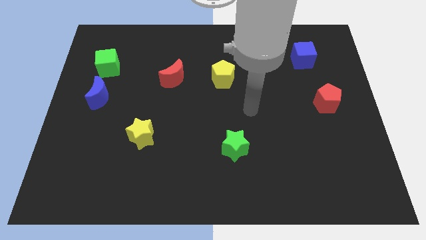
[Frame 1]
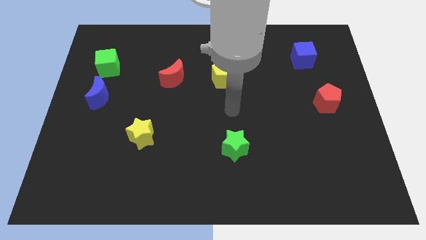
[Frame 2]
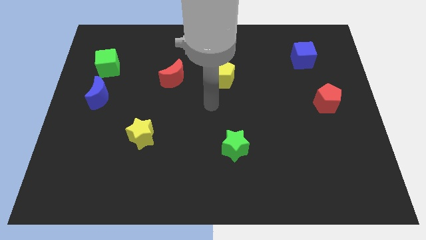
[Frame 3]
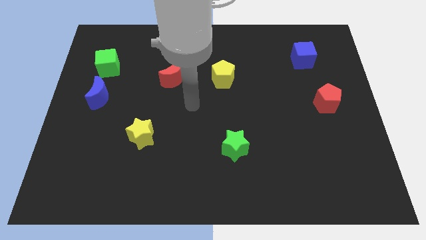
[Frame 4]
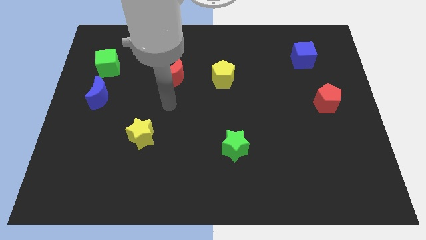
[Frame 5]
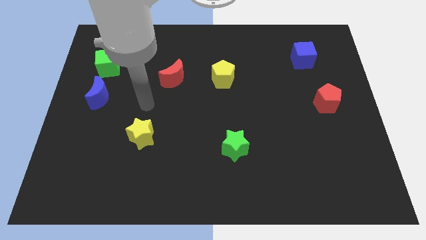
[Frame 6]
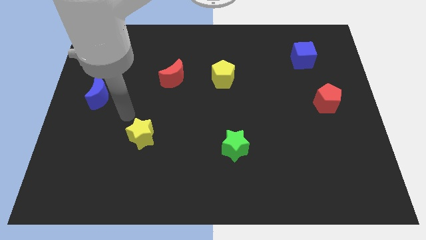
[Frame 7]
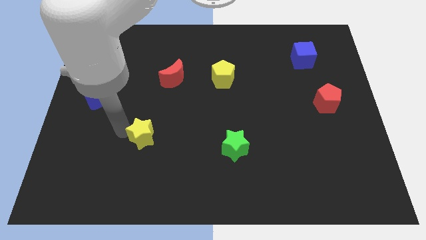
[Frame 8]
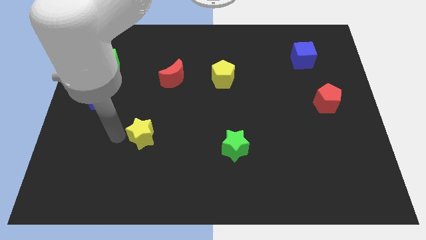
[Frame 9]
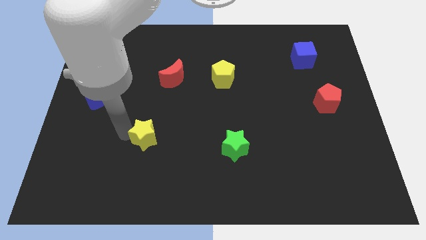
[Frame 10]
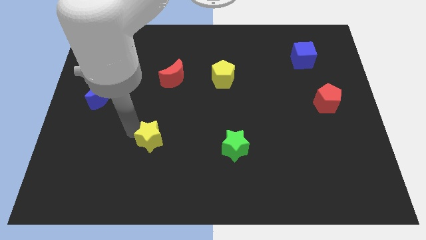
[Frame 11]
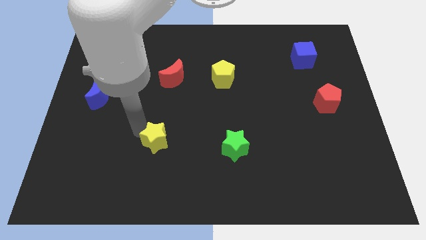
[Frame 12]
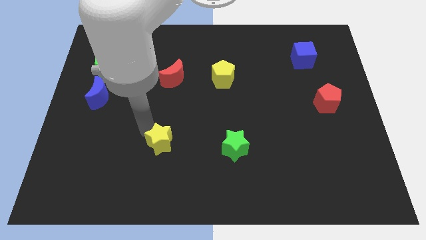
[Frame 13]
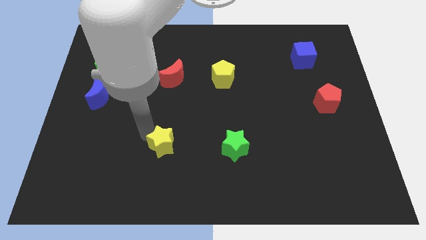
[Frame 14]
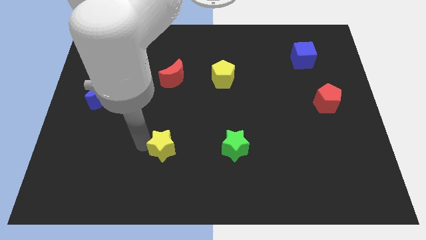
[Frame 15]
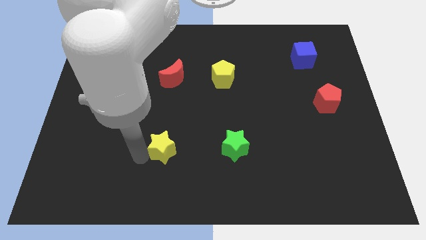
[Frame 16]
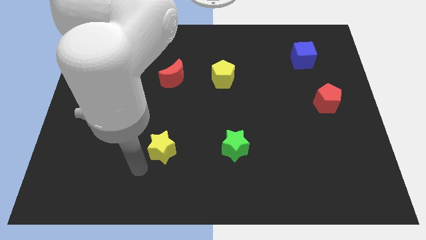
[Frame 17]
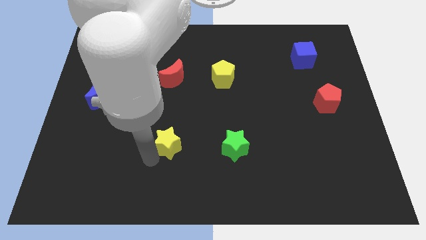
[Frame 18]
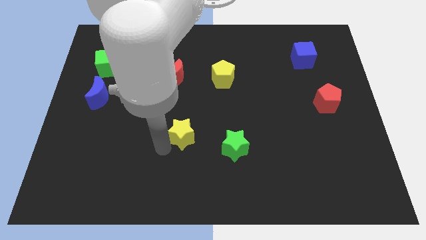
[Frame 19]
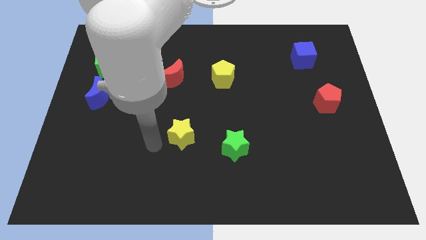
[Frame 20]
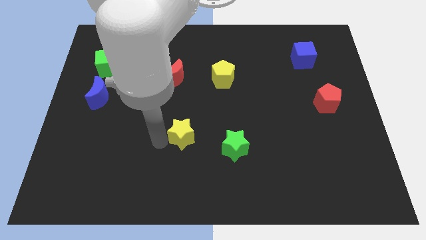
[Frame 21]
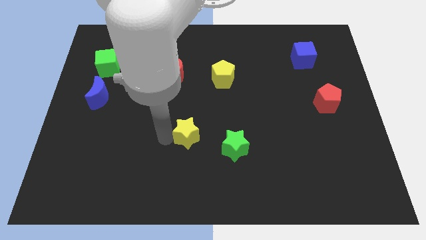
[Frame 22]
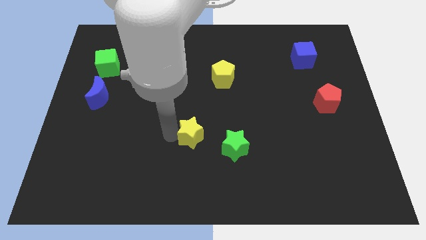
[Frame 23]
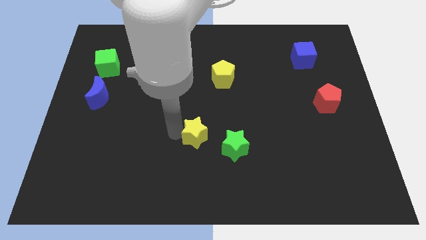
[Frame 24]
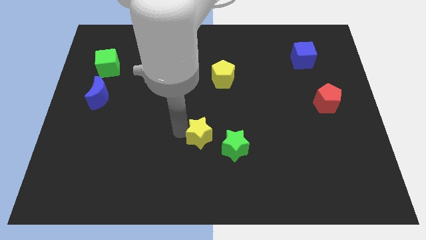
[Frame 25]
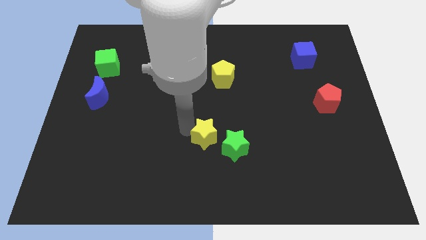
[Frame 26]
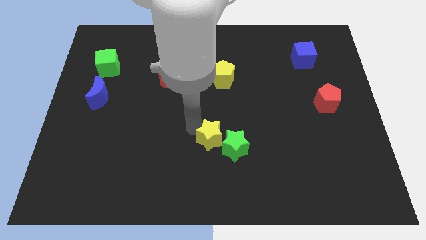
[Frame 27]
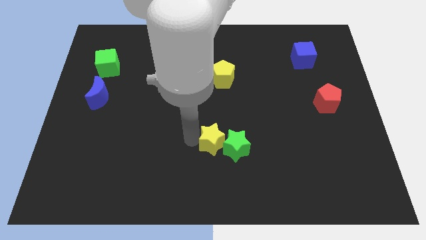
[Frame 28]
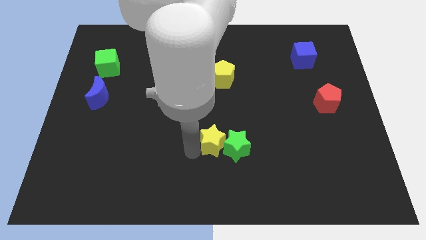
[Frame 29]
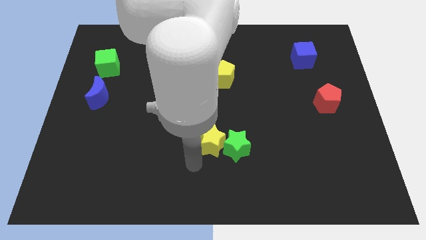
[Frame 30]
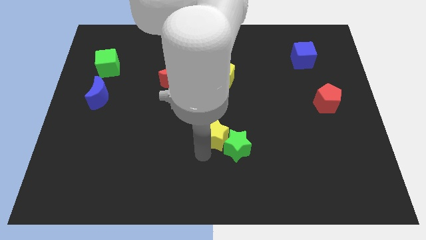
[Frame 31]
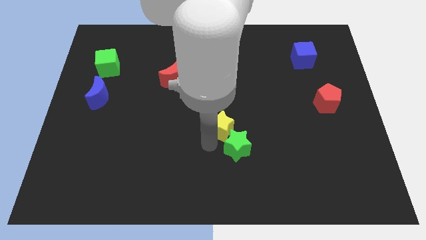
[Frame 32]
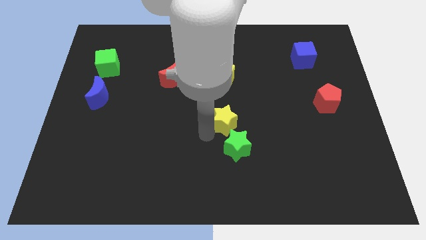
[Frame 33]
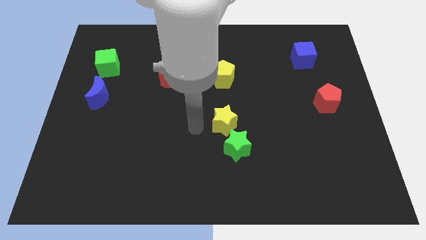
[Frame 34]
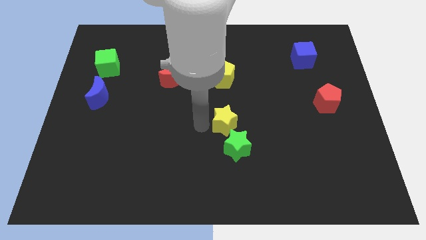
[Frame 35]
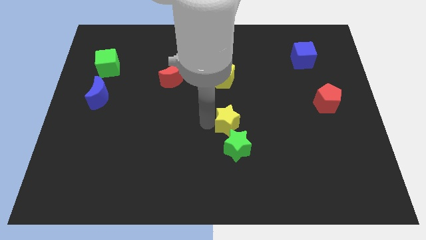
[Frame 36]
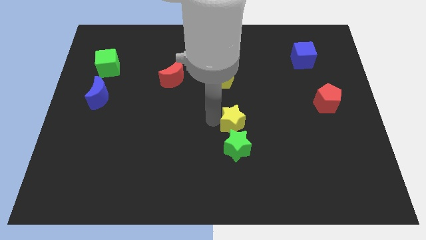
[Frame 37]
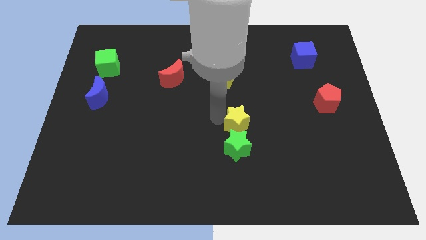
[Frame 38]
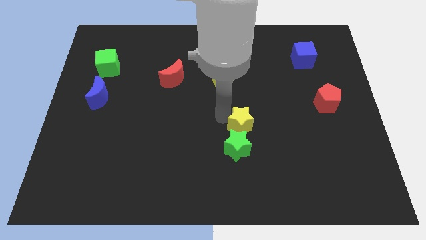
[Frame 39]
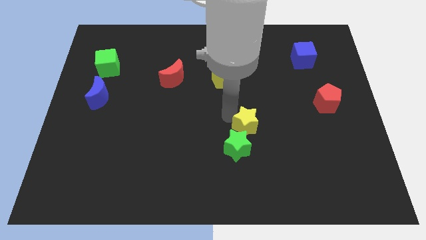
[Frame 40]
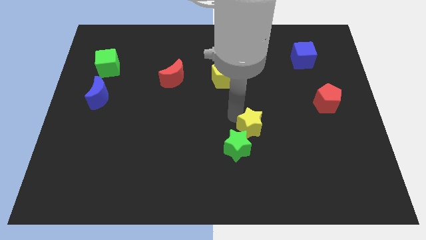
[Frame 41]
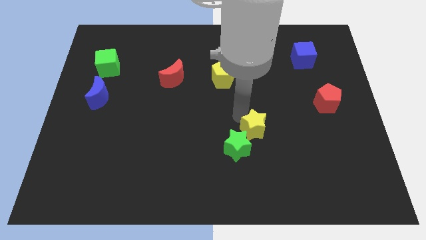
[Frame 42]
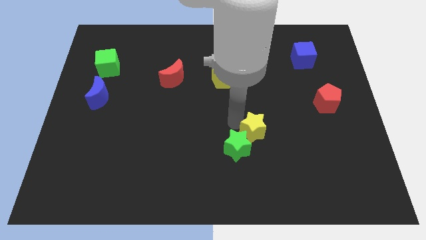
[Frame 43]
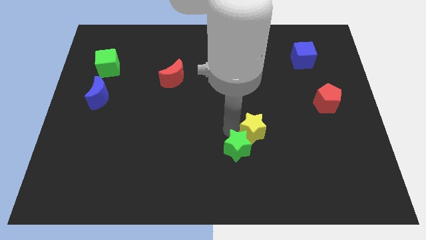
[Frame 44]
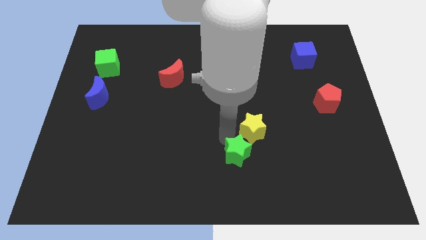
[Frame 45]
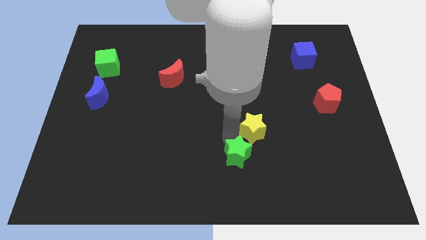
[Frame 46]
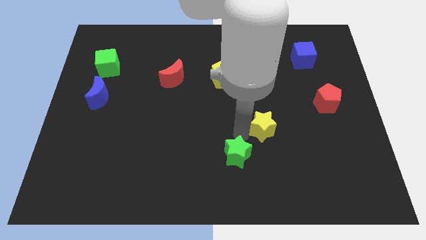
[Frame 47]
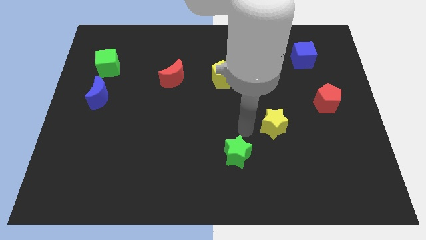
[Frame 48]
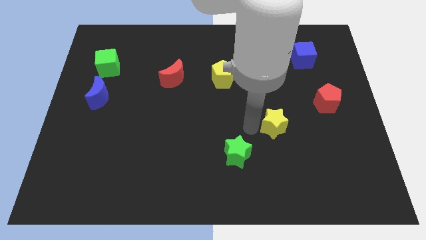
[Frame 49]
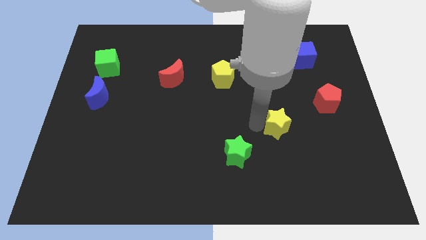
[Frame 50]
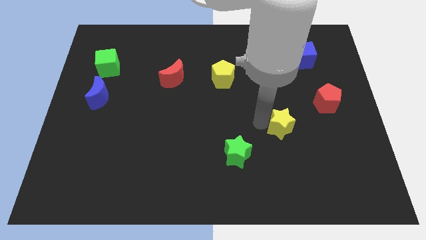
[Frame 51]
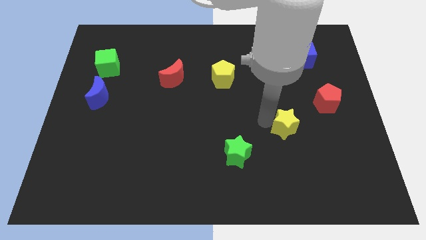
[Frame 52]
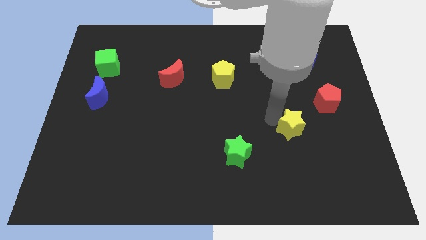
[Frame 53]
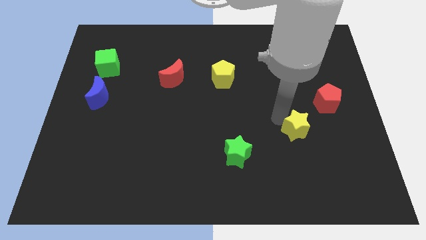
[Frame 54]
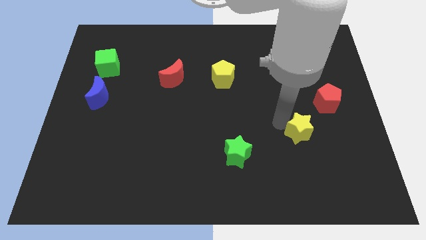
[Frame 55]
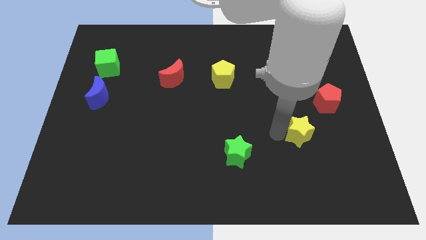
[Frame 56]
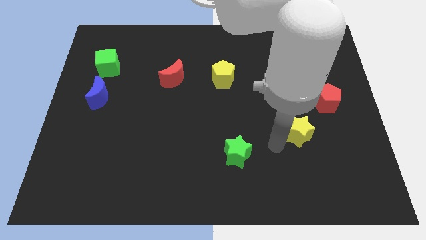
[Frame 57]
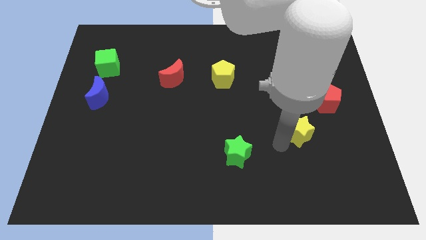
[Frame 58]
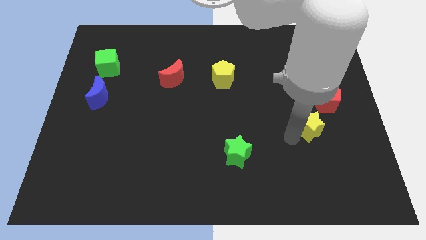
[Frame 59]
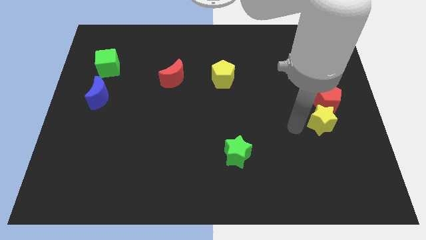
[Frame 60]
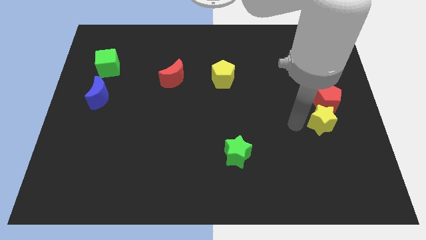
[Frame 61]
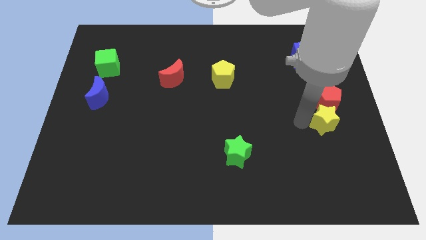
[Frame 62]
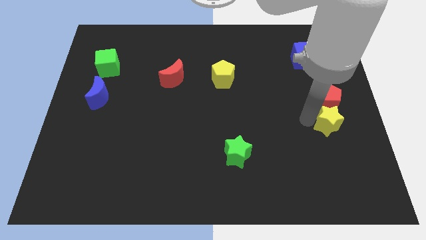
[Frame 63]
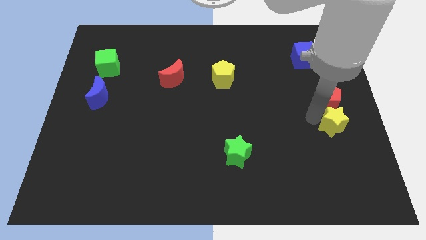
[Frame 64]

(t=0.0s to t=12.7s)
put the yellow star to the right side of the board

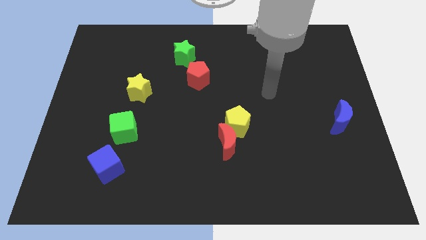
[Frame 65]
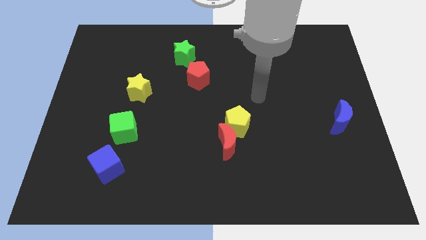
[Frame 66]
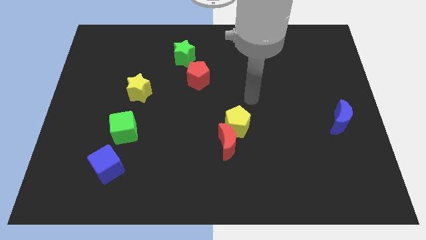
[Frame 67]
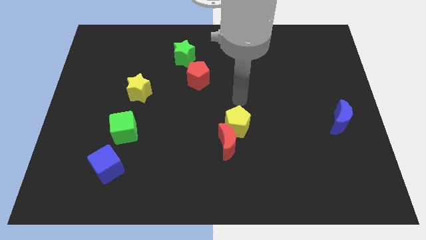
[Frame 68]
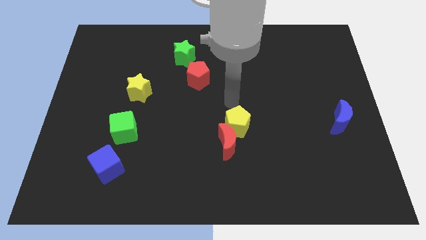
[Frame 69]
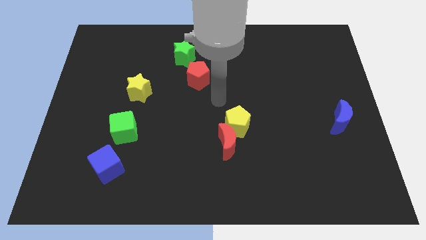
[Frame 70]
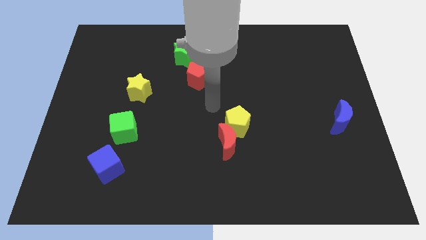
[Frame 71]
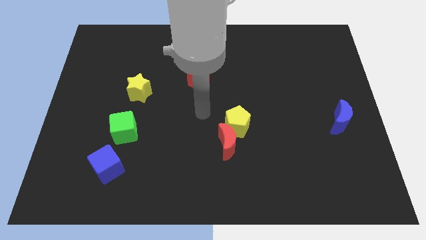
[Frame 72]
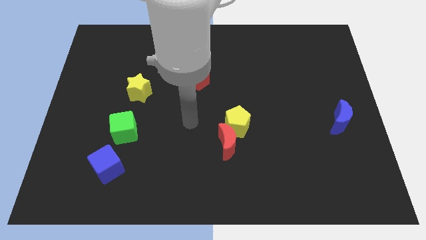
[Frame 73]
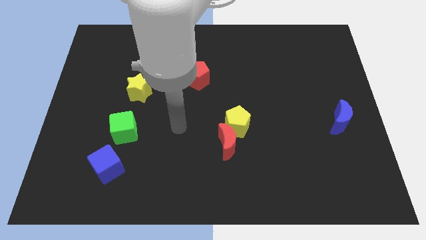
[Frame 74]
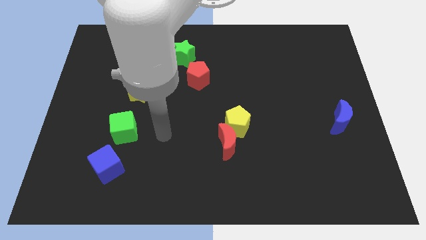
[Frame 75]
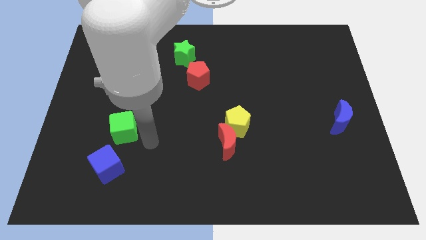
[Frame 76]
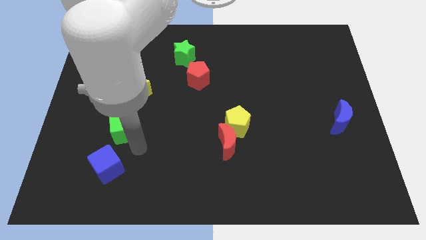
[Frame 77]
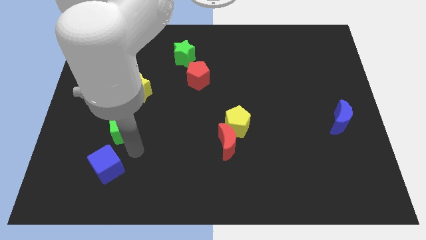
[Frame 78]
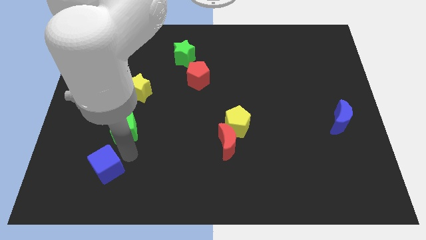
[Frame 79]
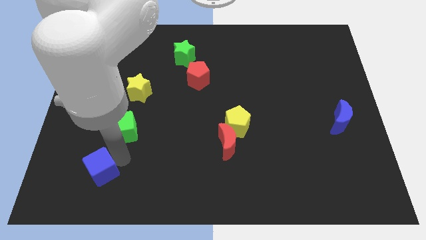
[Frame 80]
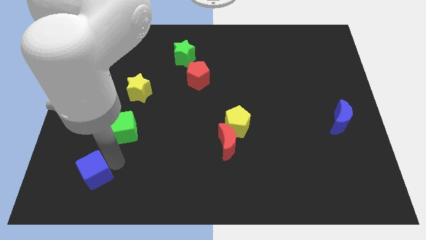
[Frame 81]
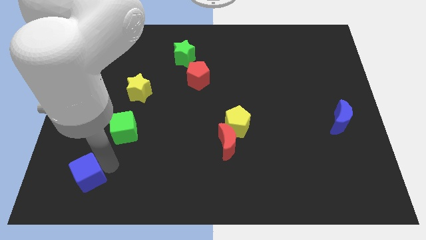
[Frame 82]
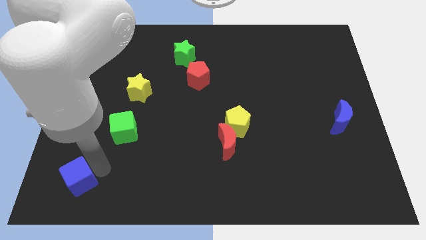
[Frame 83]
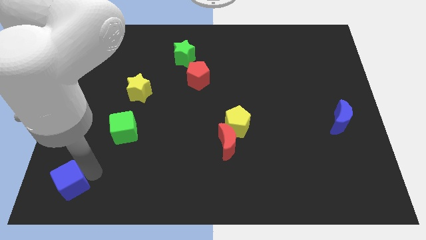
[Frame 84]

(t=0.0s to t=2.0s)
push the blue cube to the bottom left corner
